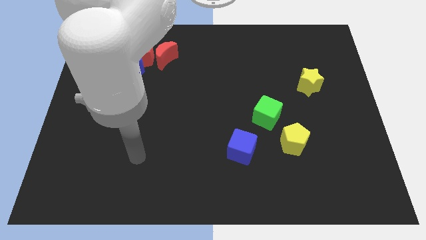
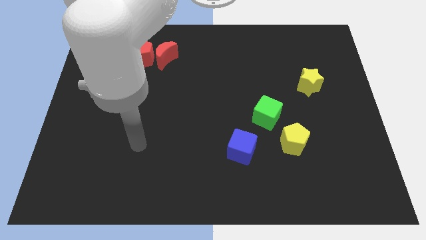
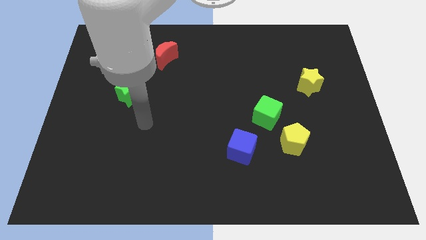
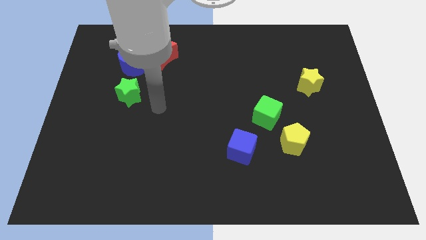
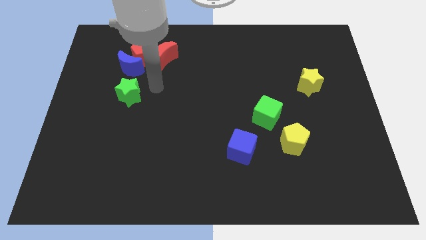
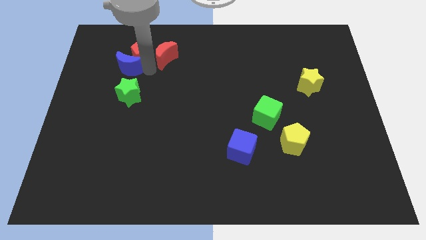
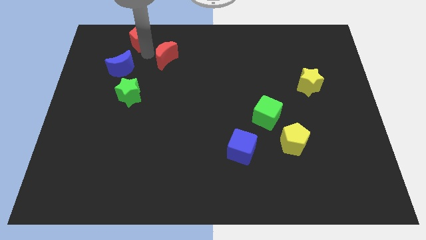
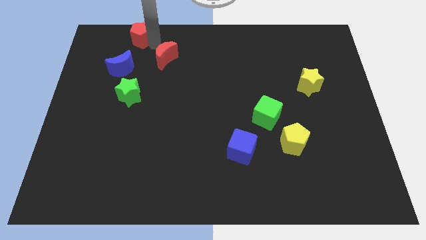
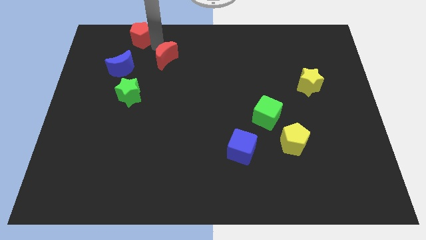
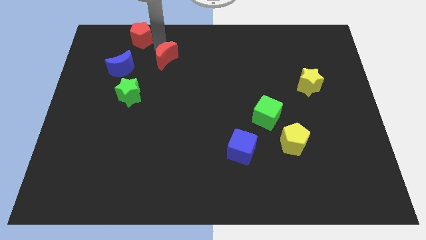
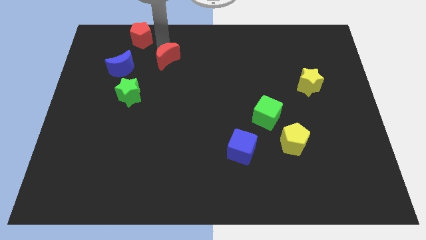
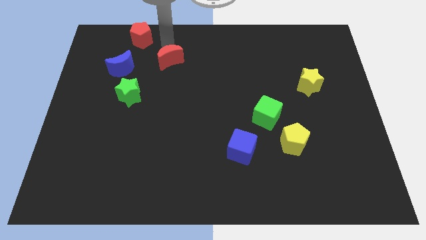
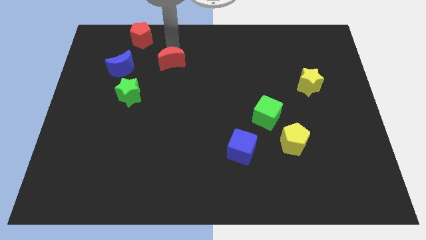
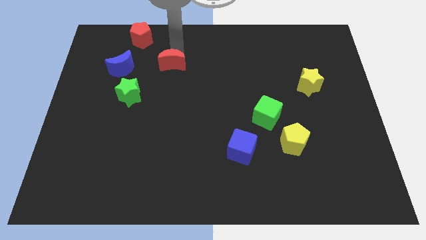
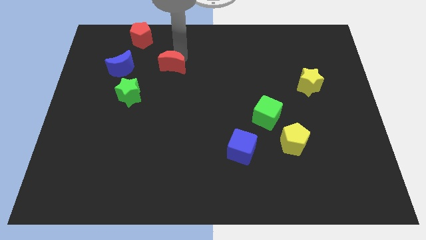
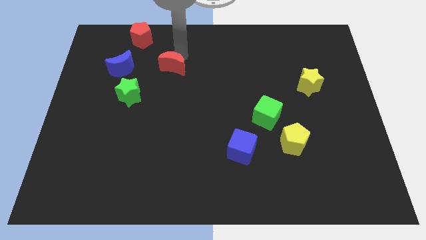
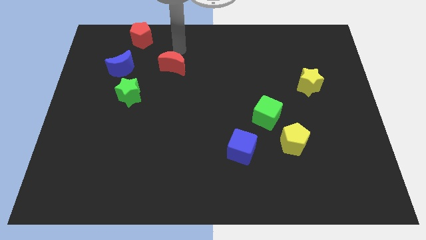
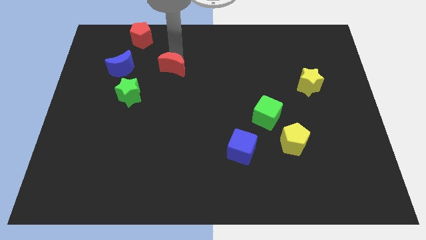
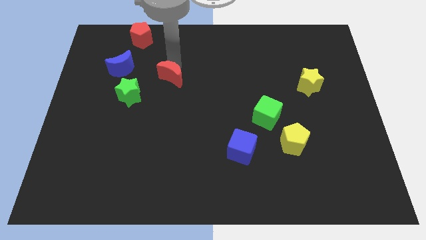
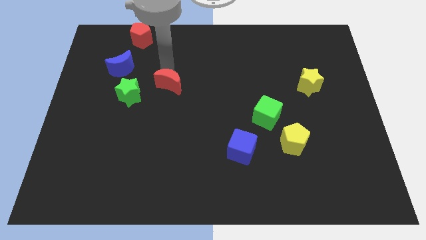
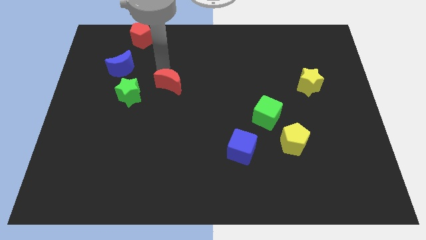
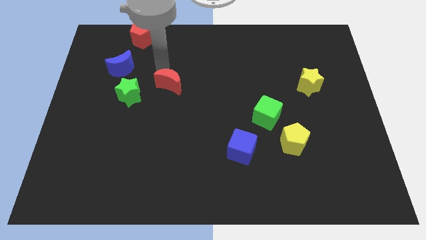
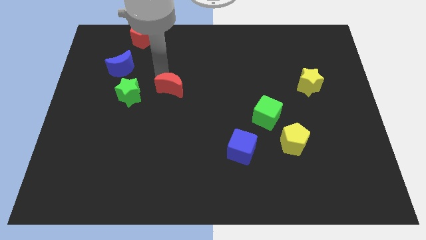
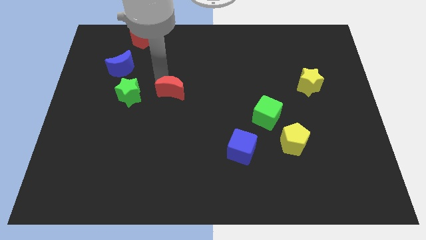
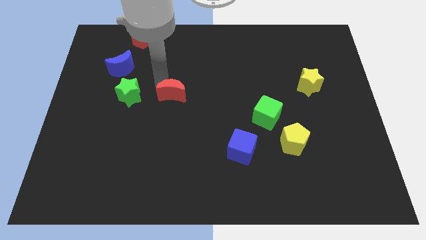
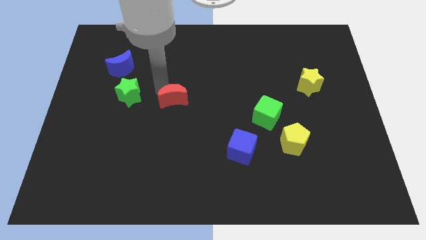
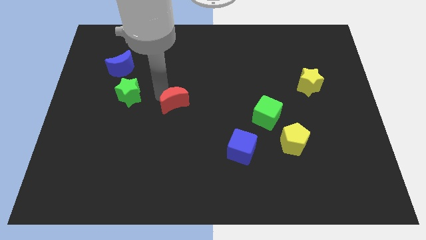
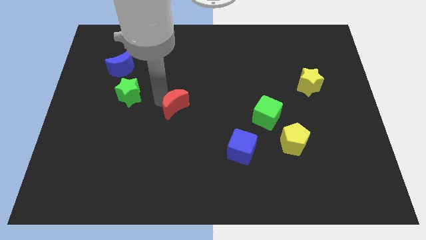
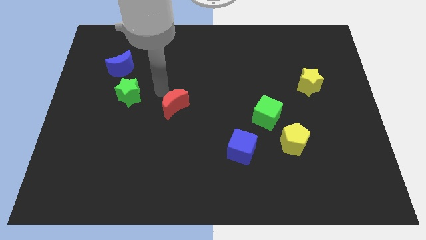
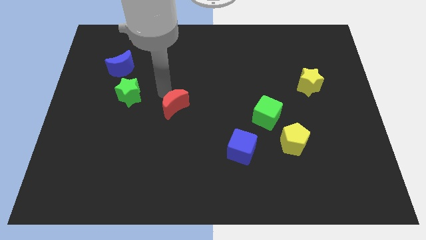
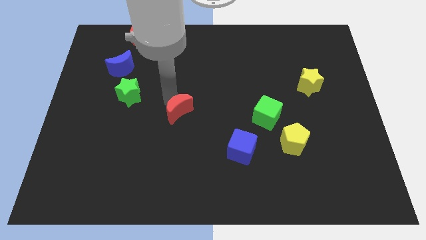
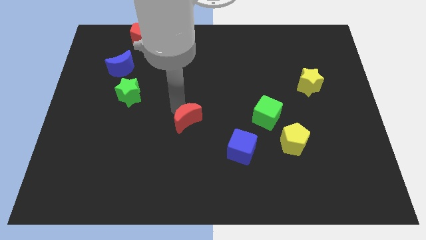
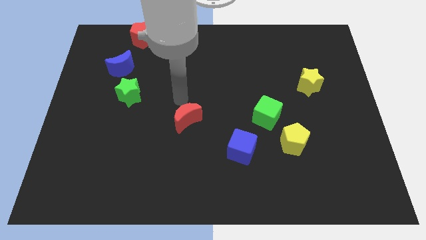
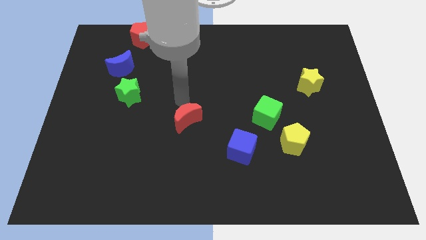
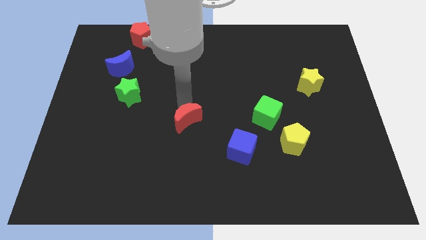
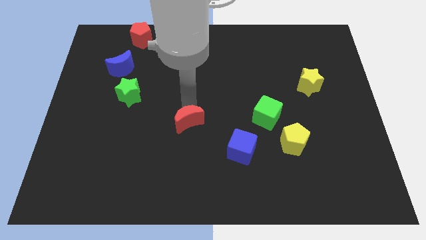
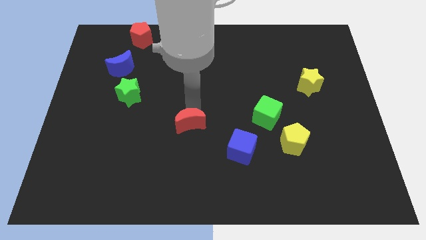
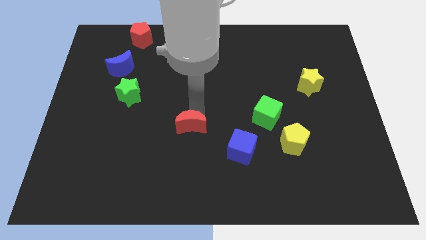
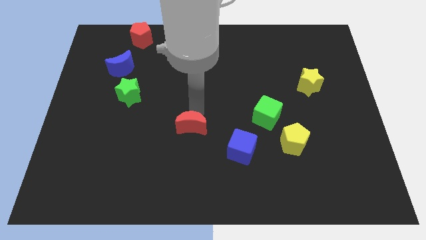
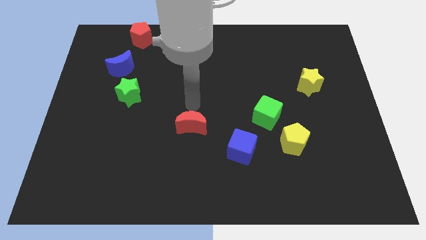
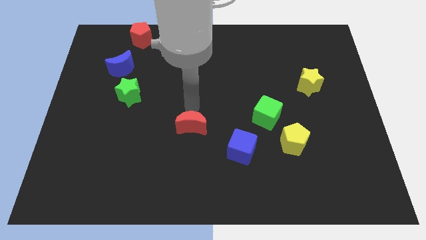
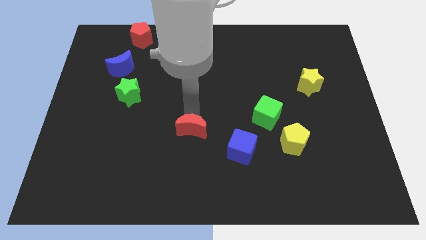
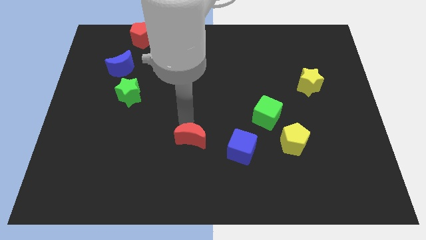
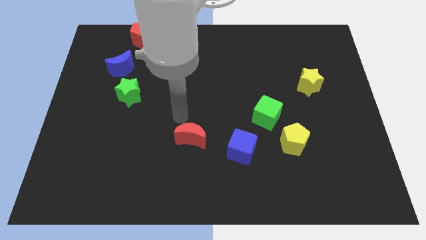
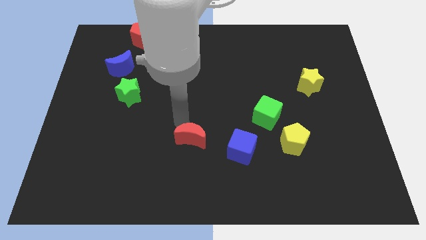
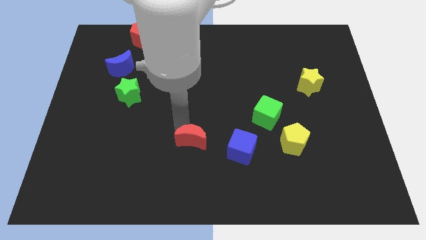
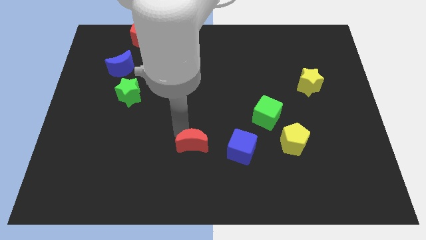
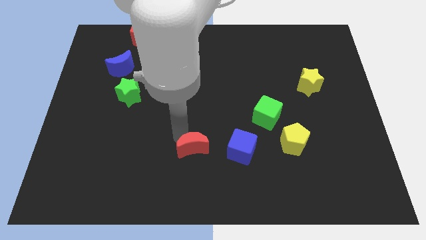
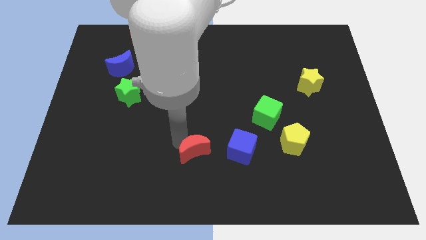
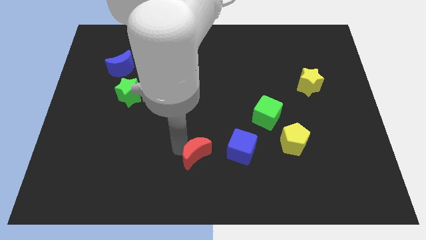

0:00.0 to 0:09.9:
slide the red moon to the bottom

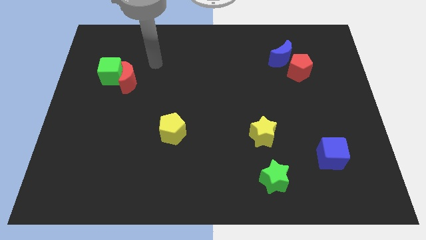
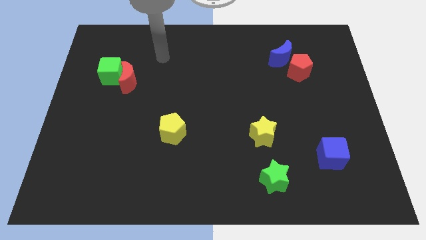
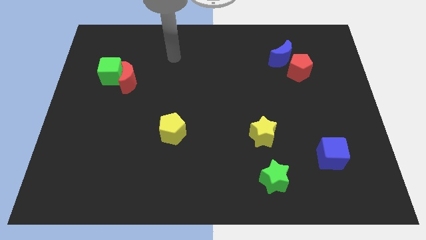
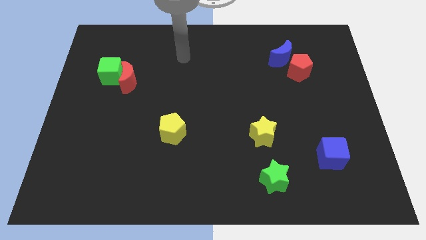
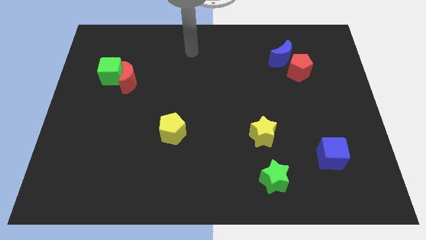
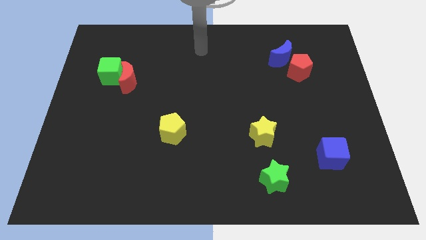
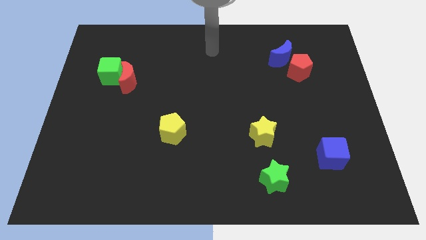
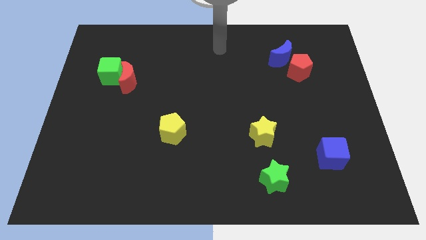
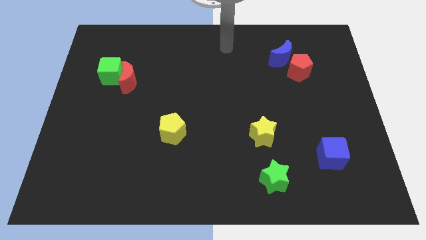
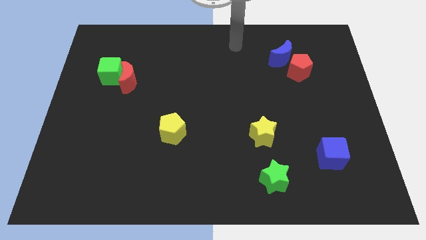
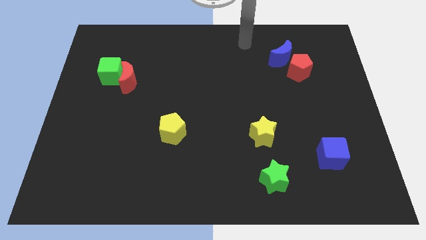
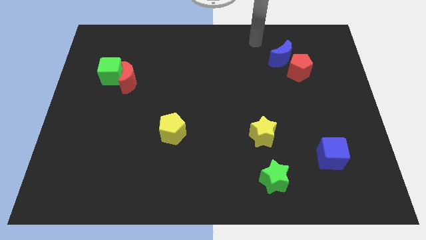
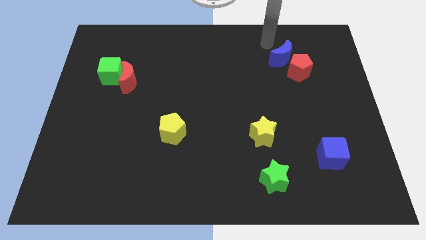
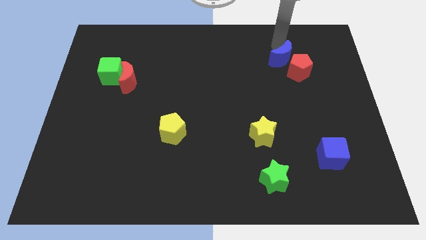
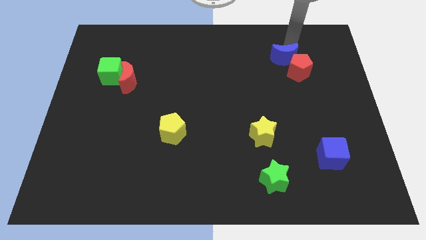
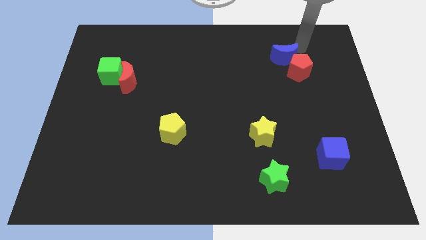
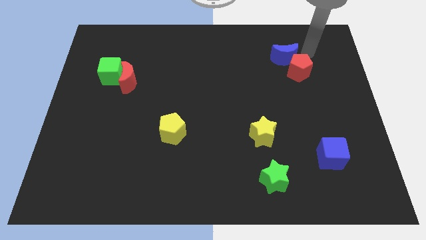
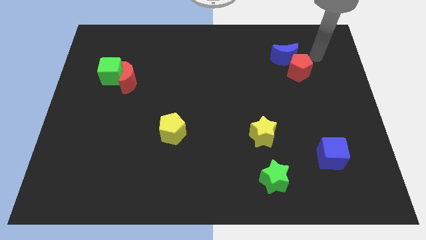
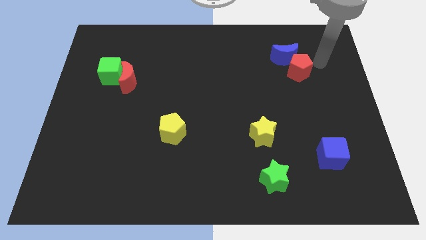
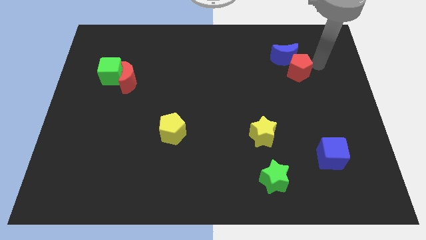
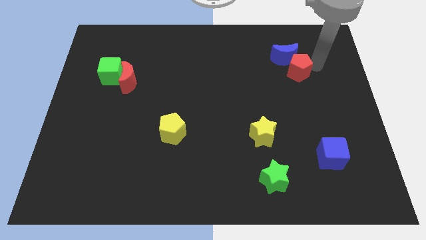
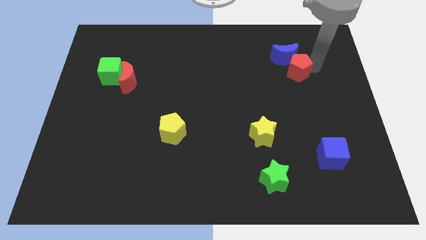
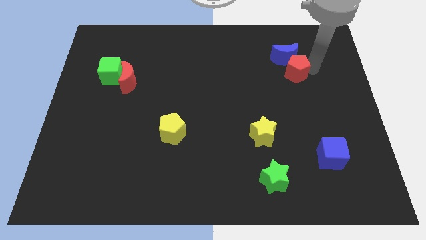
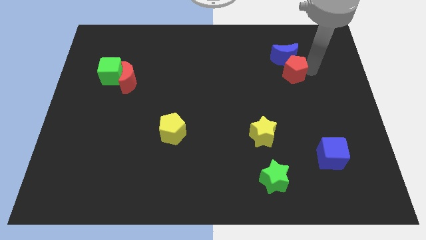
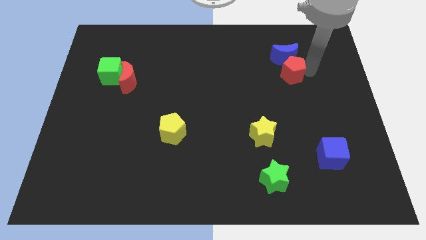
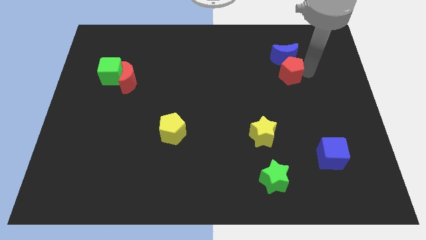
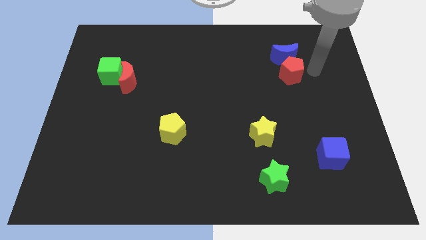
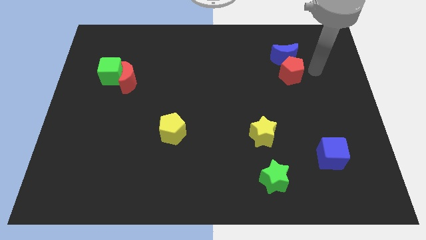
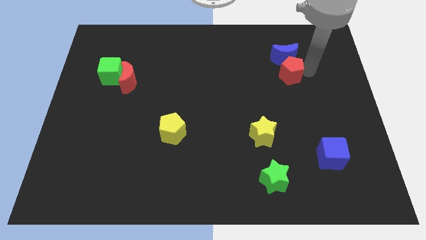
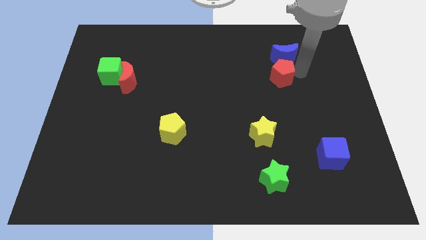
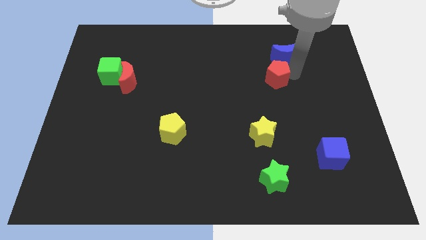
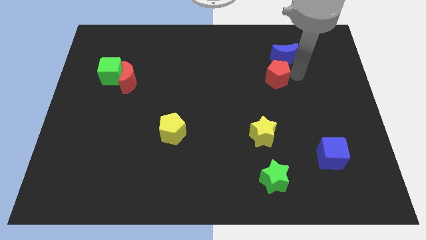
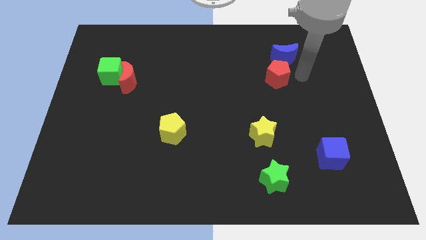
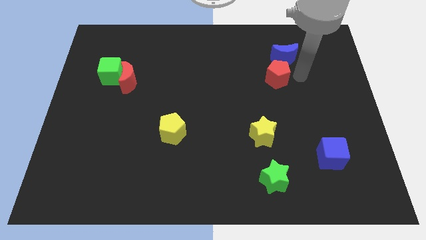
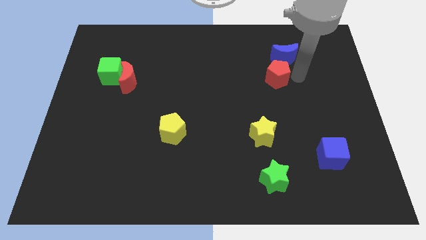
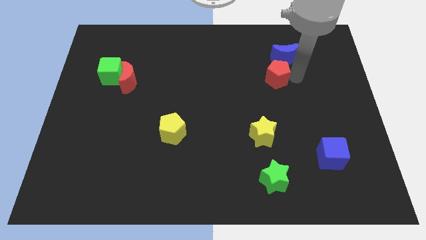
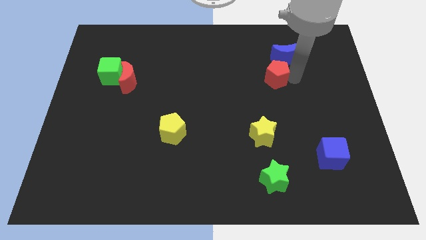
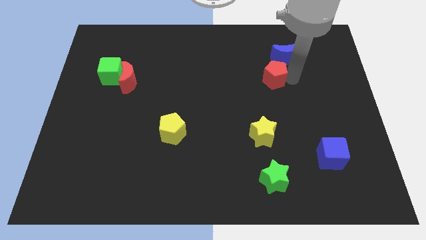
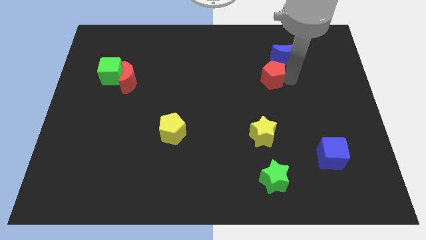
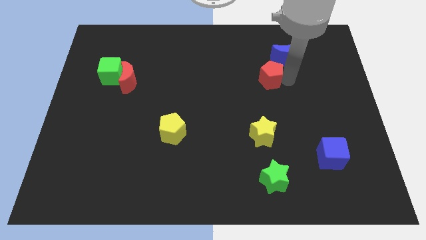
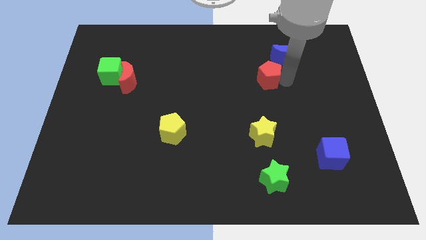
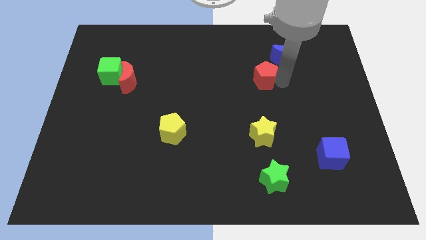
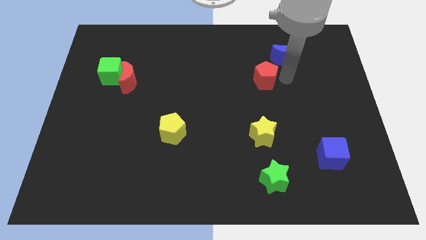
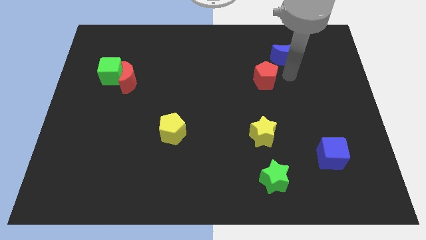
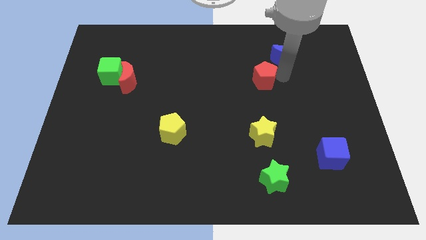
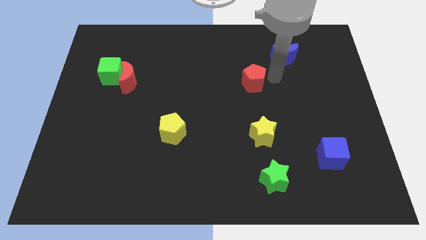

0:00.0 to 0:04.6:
push the red pentagon to the middle
